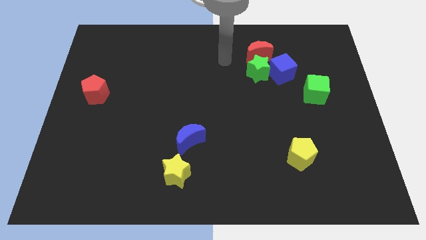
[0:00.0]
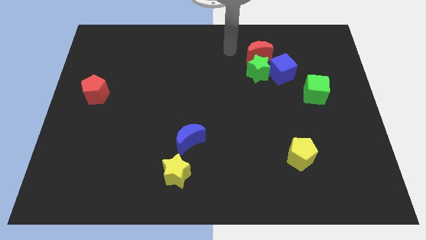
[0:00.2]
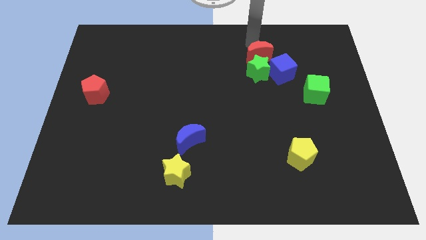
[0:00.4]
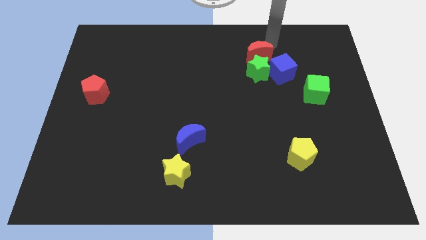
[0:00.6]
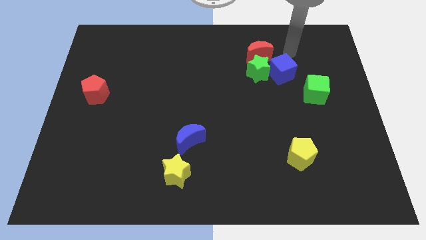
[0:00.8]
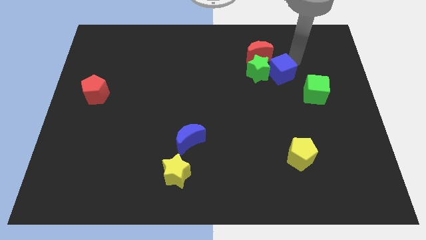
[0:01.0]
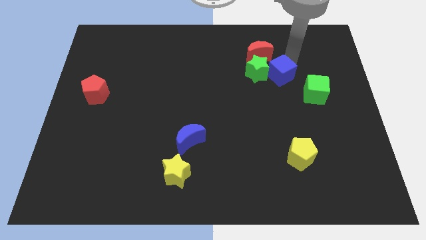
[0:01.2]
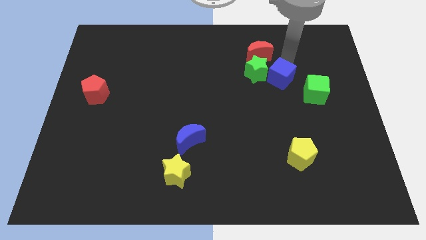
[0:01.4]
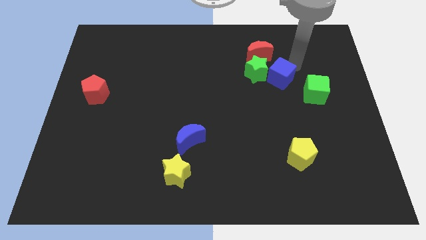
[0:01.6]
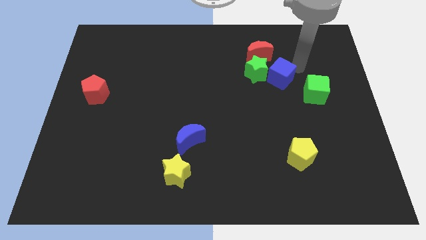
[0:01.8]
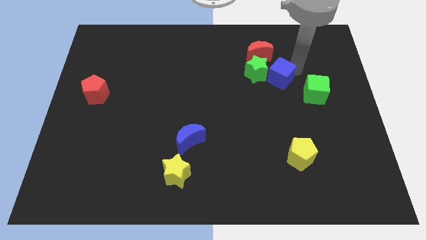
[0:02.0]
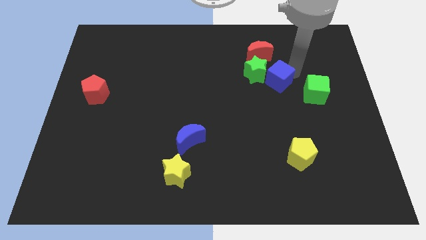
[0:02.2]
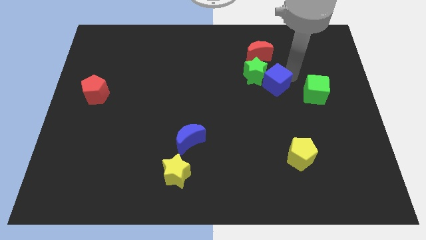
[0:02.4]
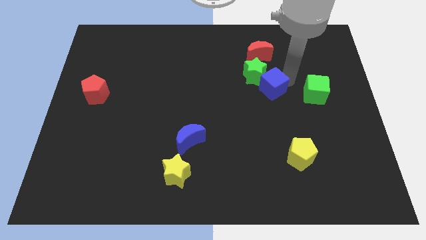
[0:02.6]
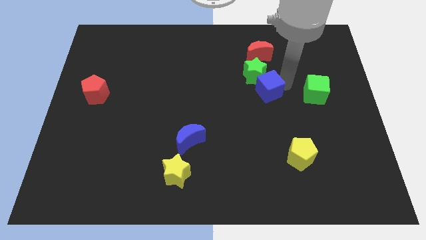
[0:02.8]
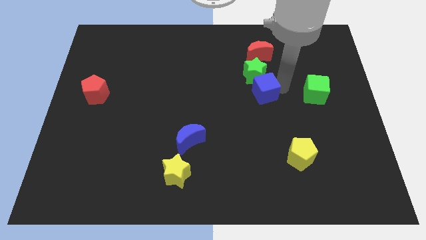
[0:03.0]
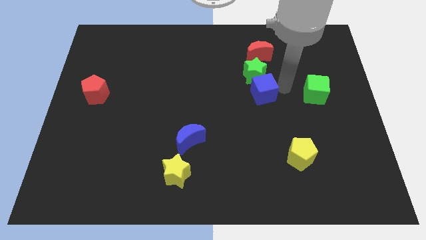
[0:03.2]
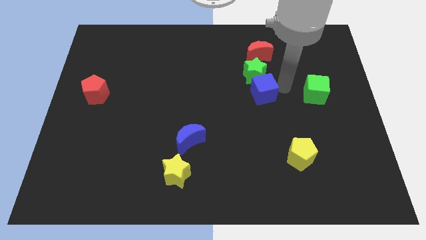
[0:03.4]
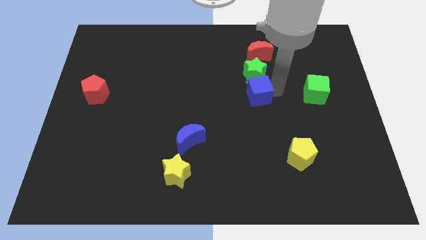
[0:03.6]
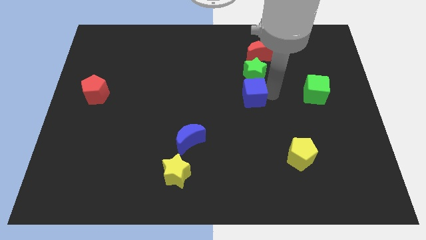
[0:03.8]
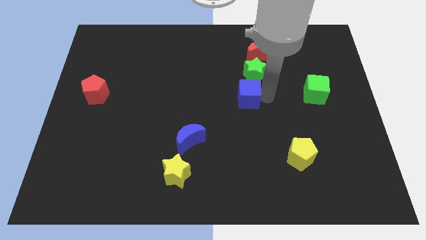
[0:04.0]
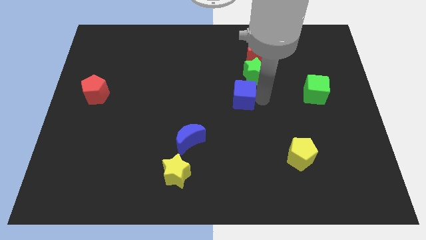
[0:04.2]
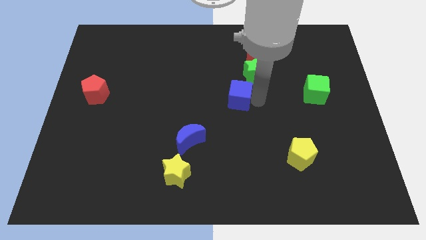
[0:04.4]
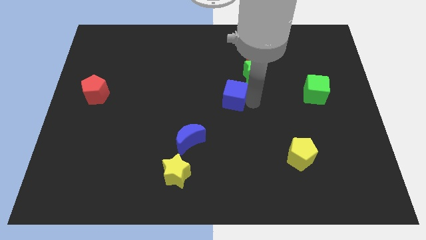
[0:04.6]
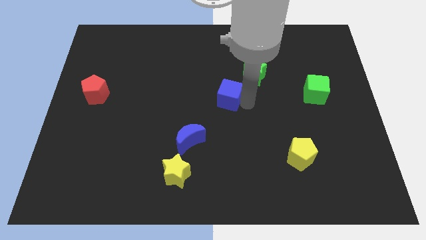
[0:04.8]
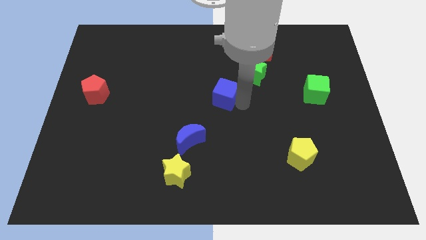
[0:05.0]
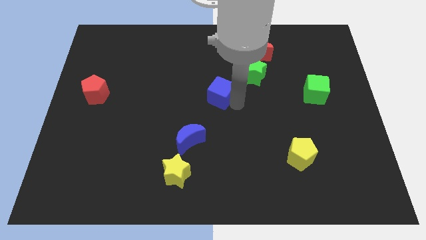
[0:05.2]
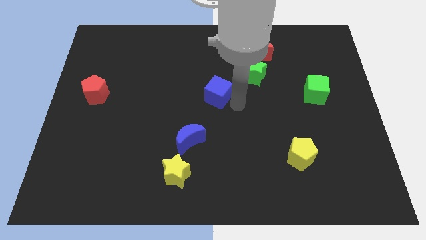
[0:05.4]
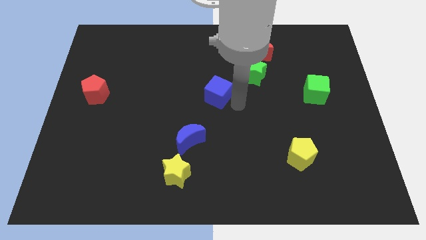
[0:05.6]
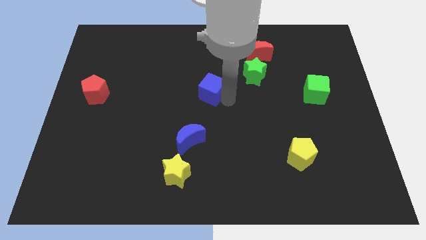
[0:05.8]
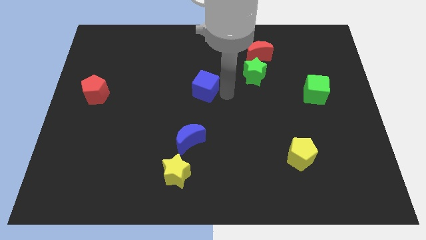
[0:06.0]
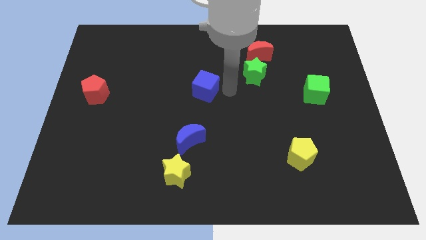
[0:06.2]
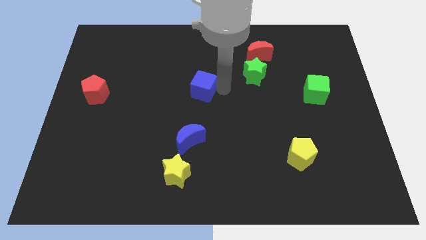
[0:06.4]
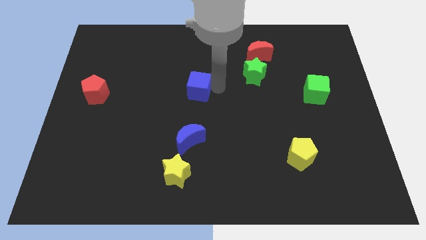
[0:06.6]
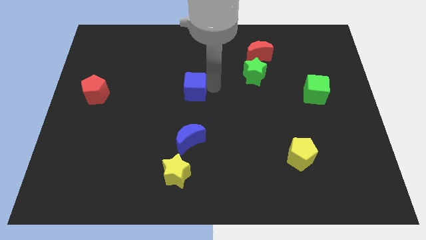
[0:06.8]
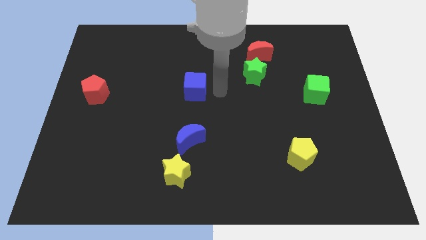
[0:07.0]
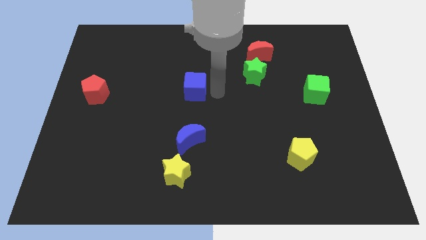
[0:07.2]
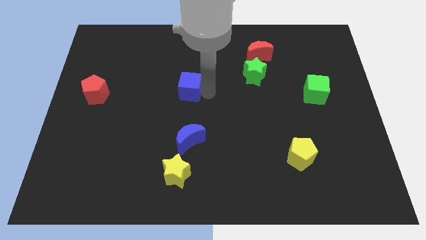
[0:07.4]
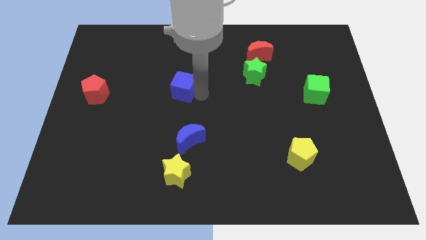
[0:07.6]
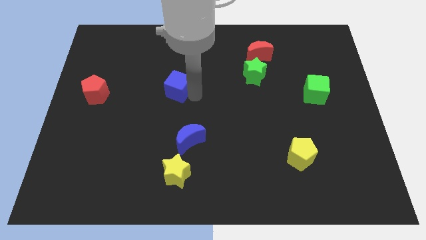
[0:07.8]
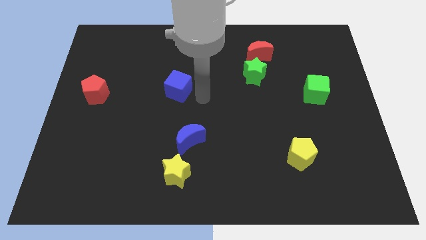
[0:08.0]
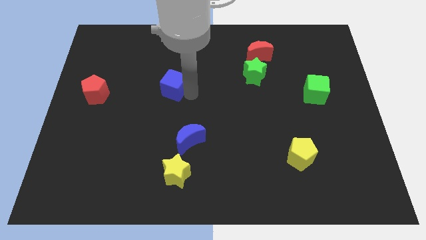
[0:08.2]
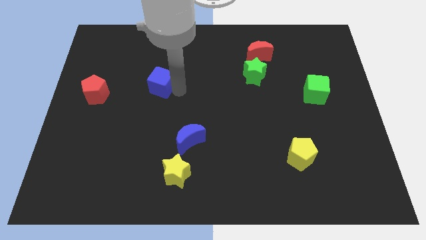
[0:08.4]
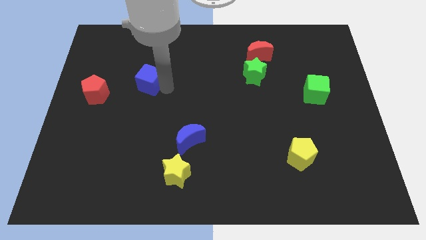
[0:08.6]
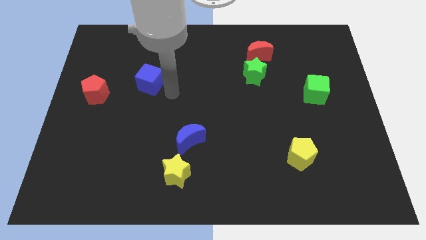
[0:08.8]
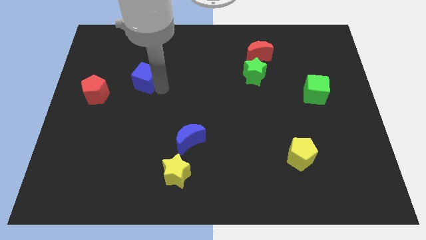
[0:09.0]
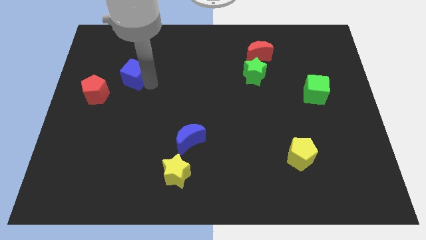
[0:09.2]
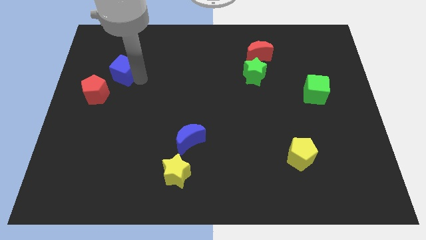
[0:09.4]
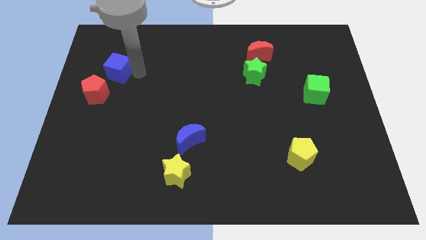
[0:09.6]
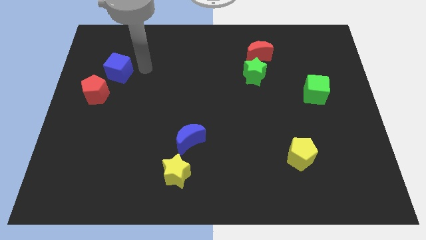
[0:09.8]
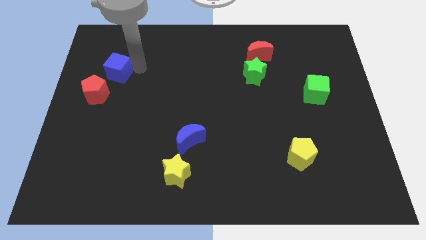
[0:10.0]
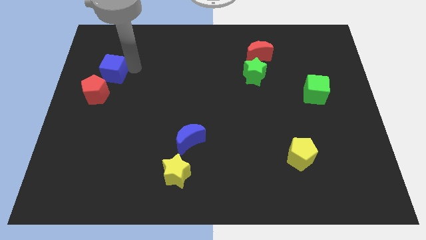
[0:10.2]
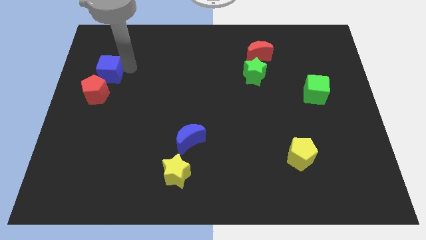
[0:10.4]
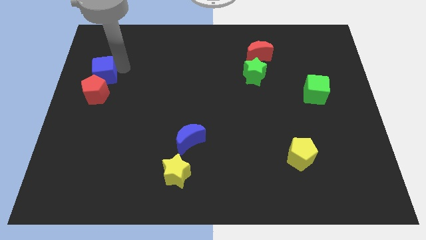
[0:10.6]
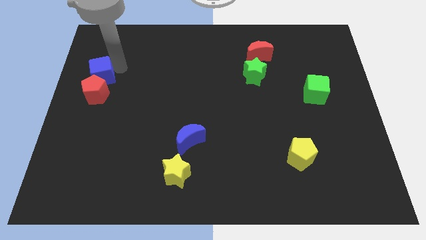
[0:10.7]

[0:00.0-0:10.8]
move the blue cube to the left side

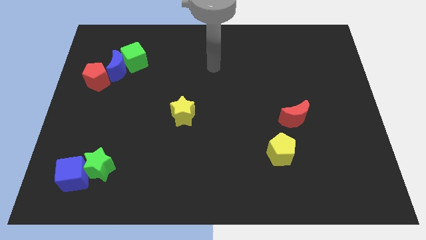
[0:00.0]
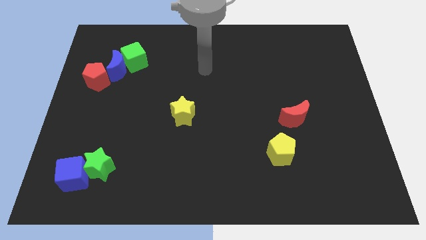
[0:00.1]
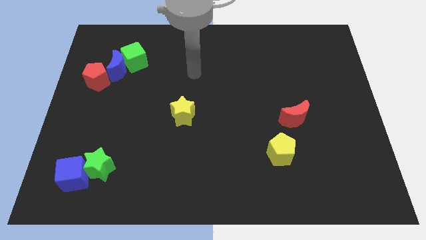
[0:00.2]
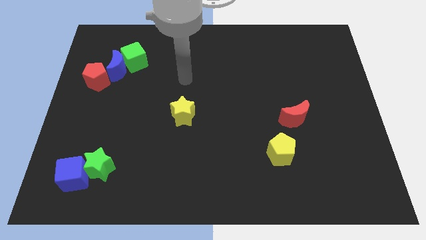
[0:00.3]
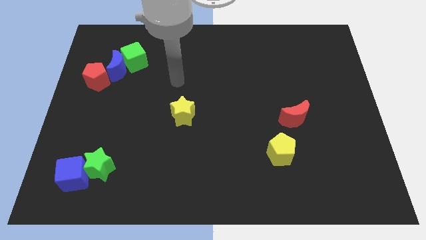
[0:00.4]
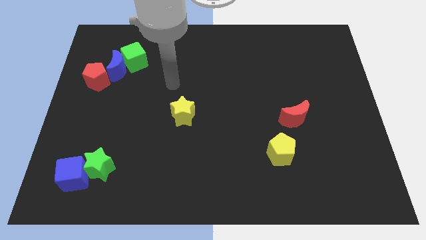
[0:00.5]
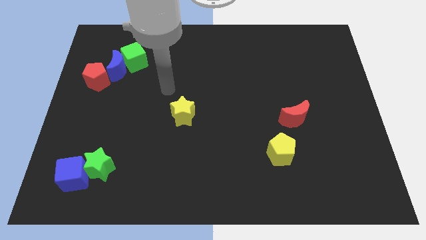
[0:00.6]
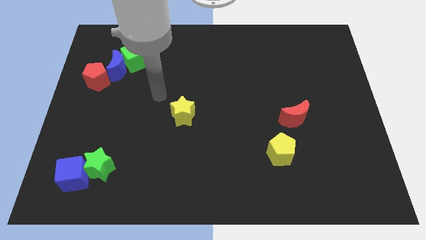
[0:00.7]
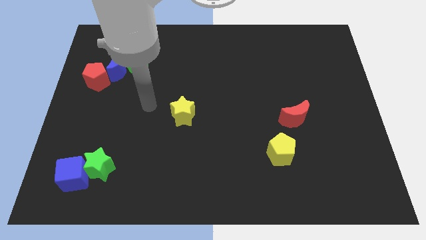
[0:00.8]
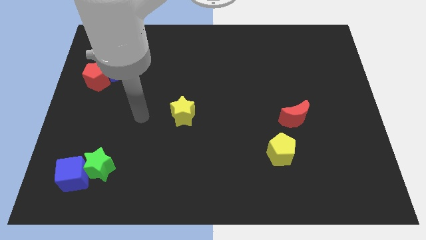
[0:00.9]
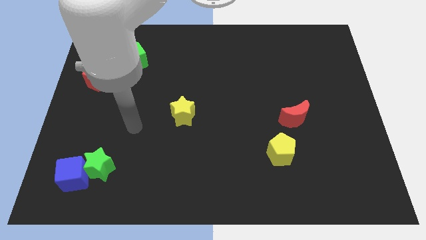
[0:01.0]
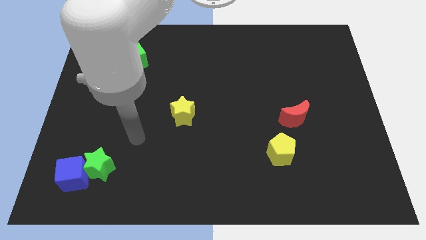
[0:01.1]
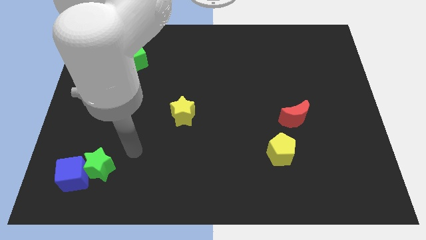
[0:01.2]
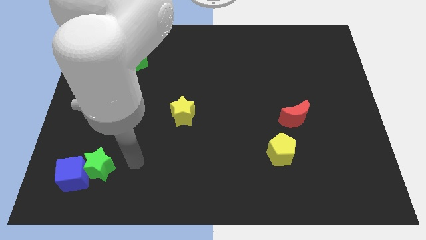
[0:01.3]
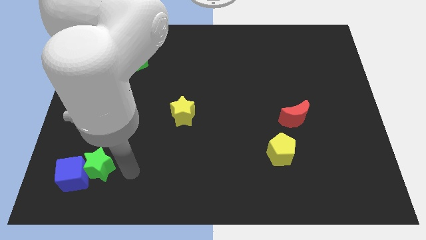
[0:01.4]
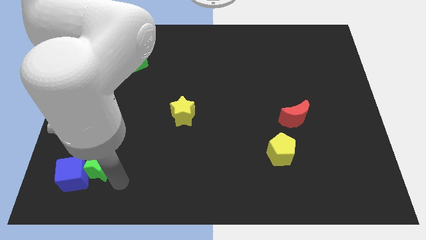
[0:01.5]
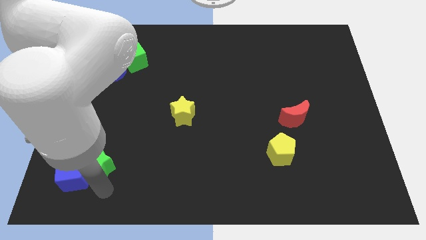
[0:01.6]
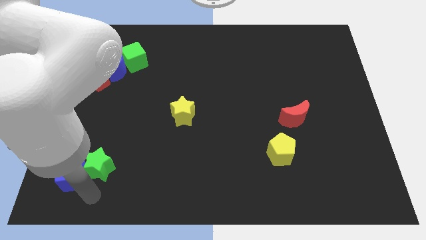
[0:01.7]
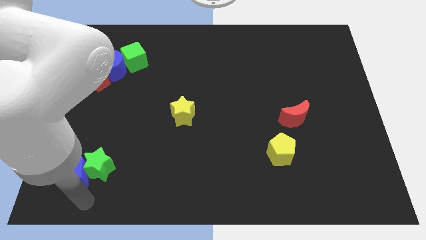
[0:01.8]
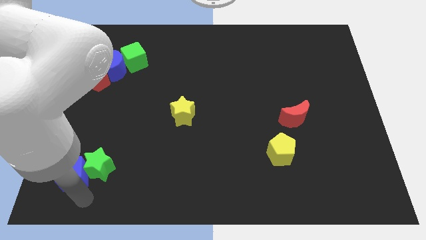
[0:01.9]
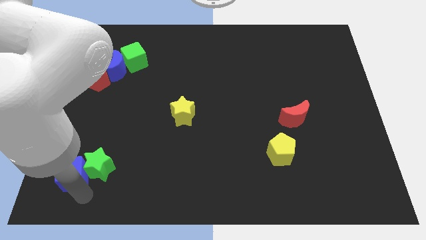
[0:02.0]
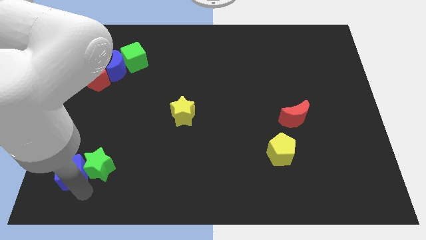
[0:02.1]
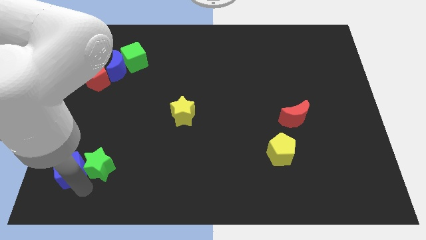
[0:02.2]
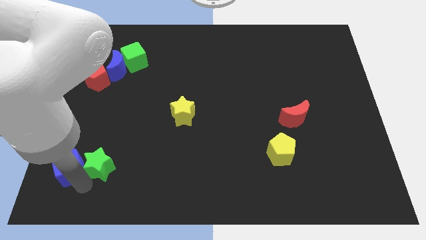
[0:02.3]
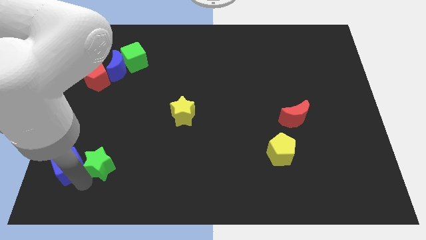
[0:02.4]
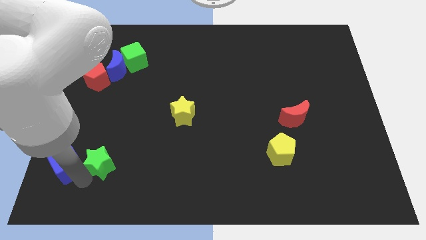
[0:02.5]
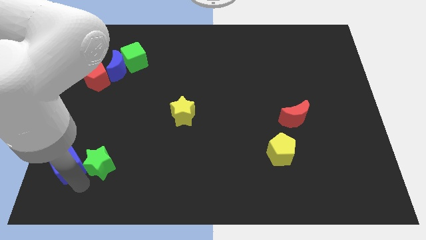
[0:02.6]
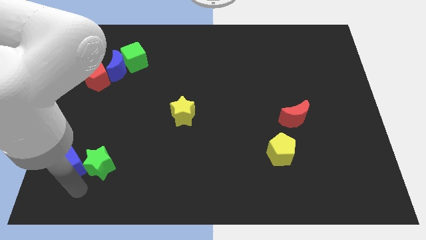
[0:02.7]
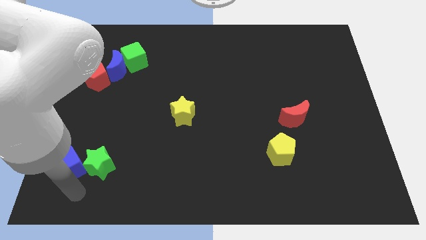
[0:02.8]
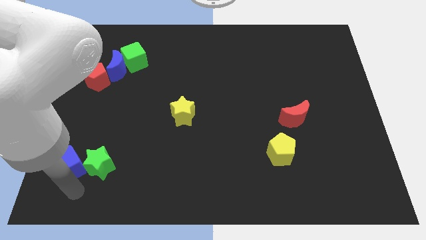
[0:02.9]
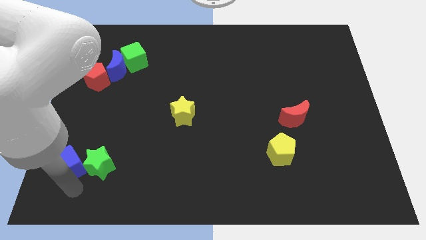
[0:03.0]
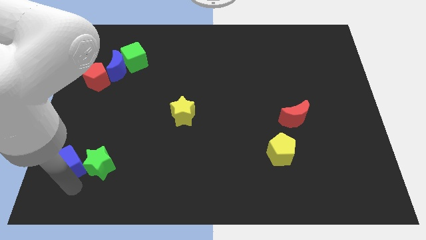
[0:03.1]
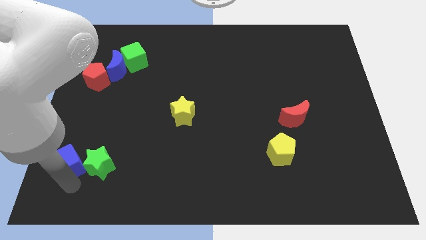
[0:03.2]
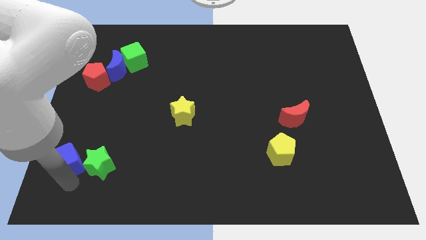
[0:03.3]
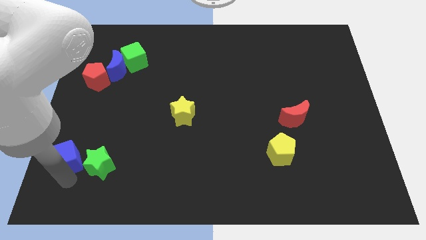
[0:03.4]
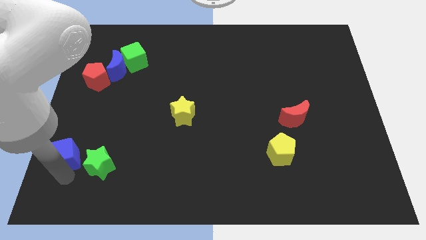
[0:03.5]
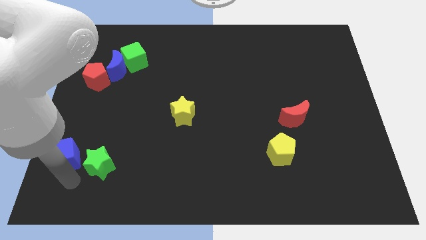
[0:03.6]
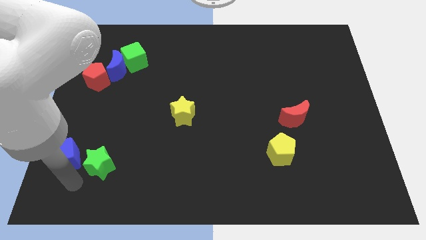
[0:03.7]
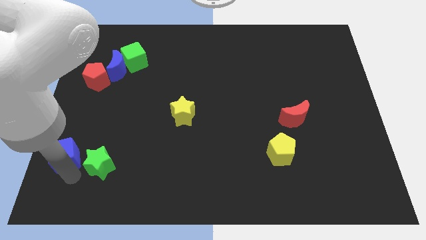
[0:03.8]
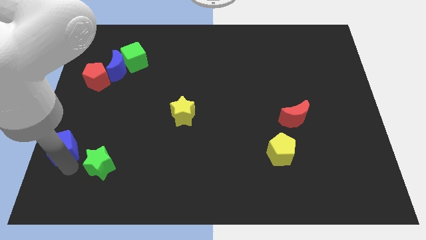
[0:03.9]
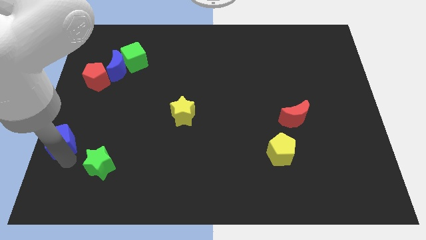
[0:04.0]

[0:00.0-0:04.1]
put the blue cube to the center left
